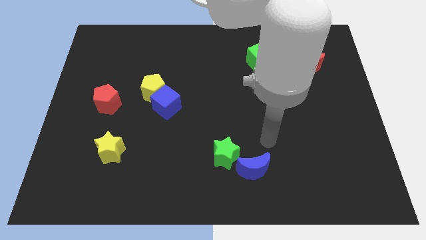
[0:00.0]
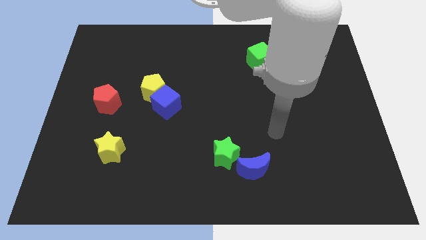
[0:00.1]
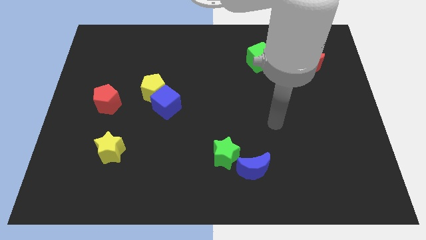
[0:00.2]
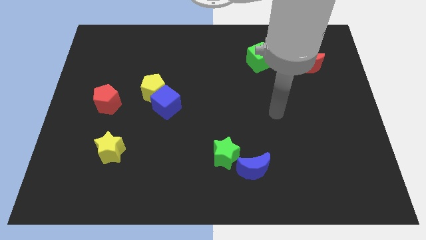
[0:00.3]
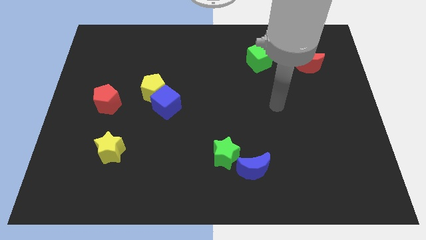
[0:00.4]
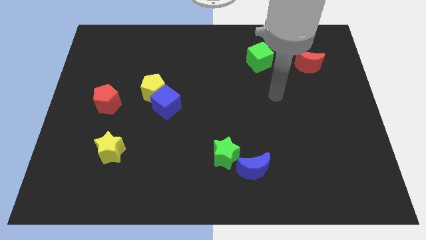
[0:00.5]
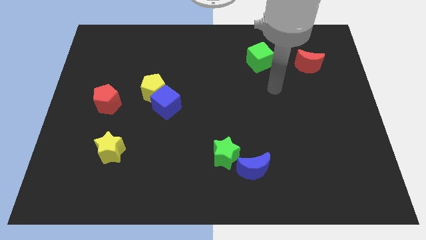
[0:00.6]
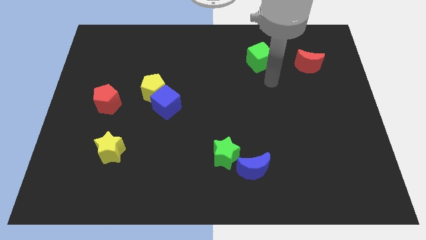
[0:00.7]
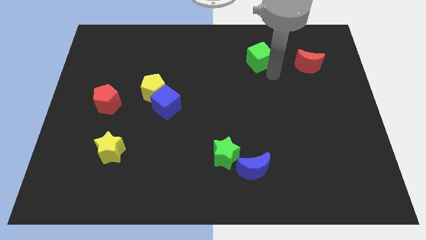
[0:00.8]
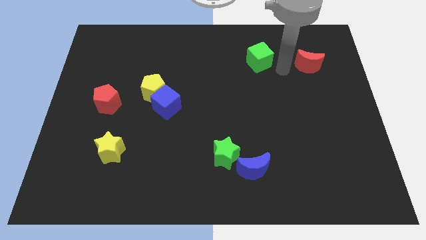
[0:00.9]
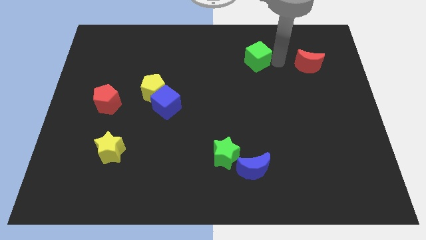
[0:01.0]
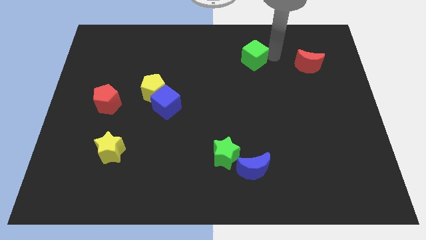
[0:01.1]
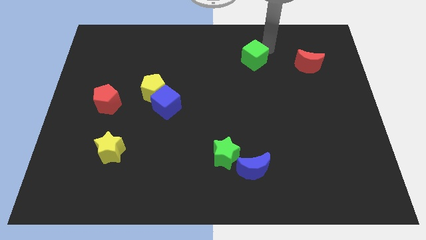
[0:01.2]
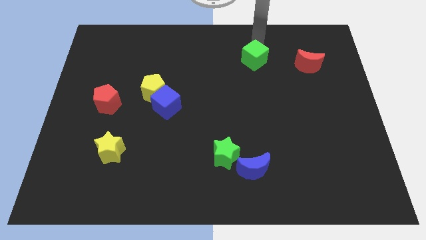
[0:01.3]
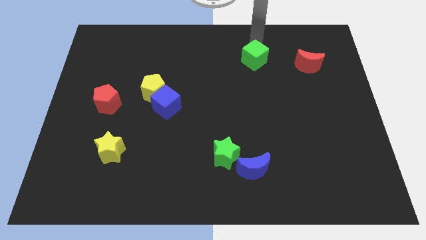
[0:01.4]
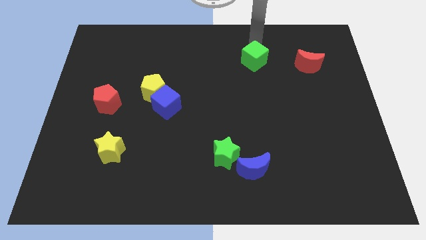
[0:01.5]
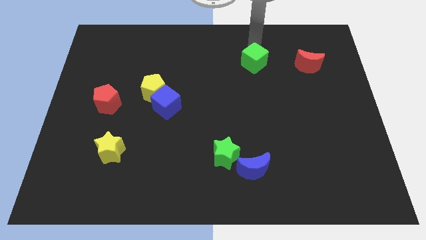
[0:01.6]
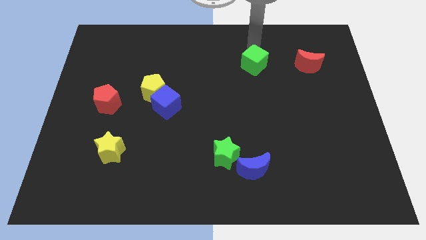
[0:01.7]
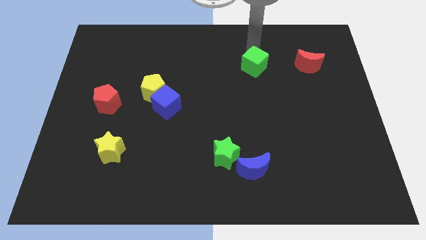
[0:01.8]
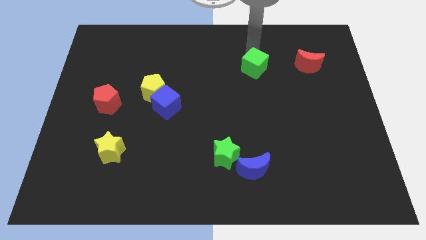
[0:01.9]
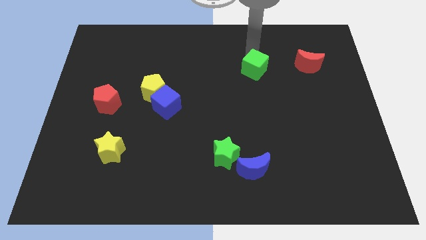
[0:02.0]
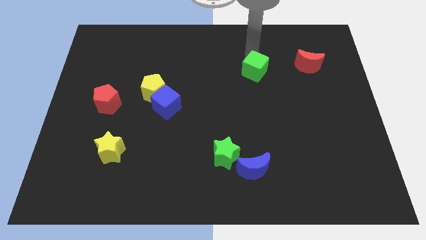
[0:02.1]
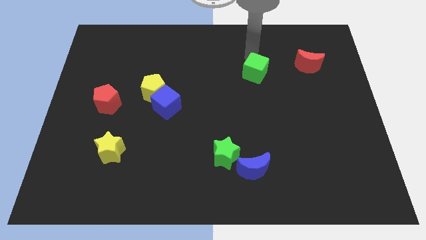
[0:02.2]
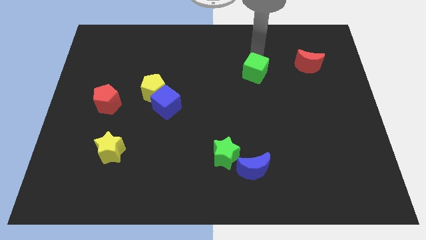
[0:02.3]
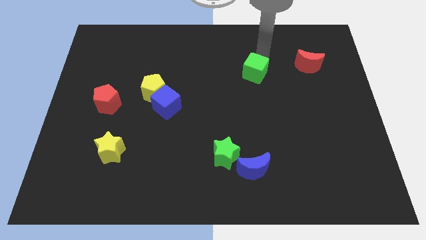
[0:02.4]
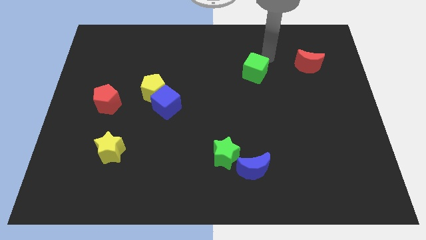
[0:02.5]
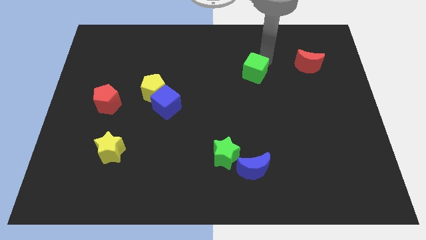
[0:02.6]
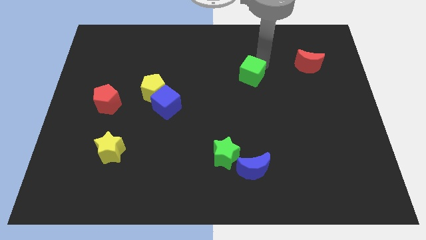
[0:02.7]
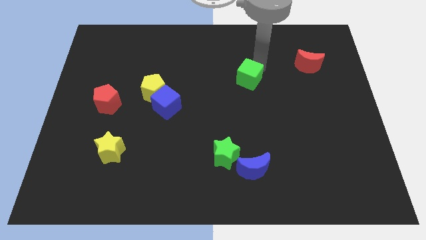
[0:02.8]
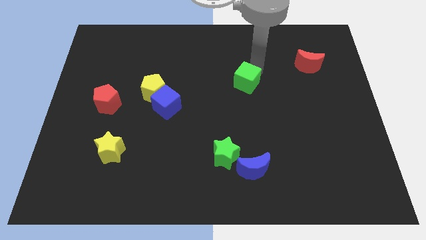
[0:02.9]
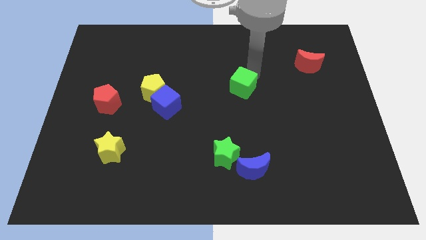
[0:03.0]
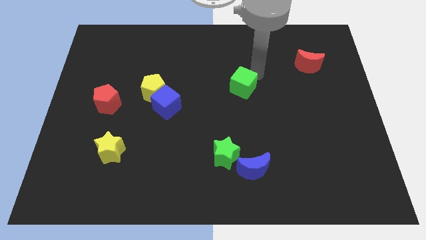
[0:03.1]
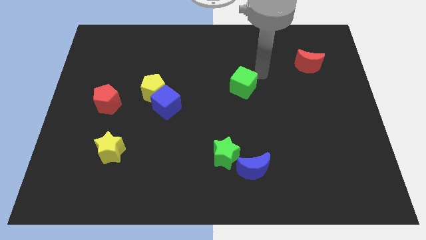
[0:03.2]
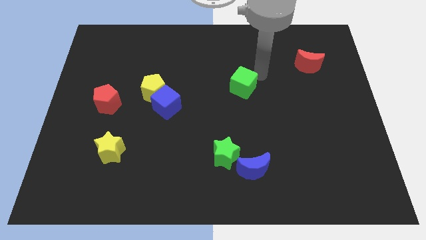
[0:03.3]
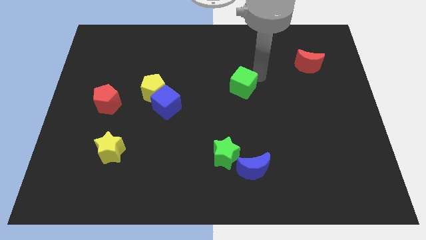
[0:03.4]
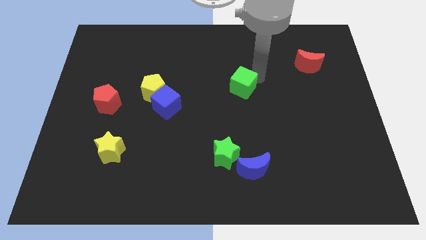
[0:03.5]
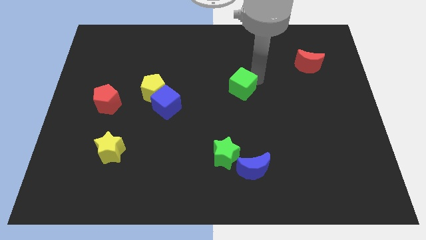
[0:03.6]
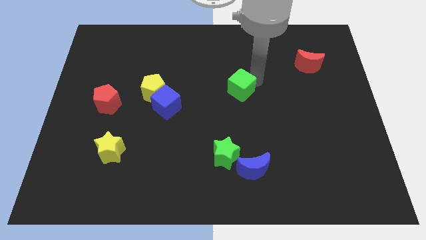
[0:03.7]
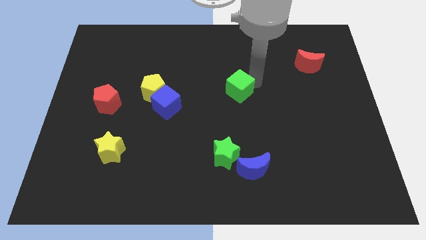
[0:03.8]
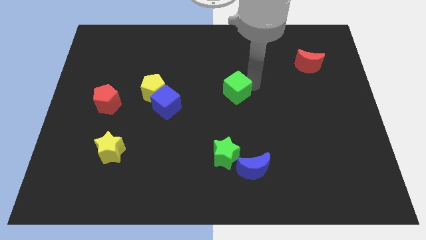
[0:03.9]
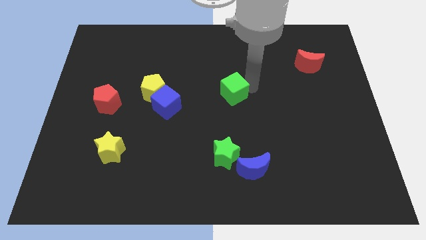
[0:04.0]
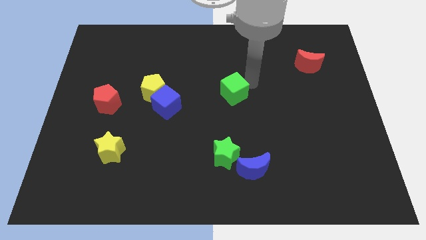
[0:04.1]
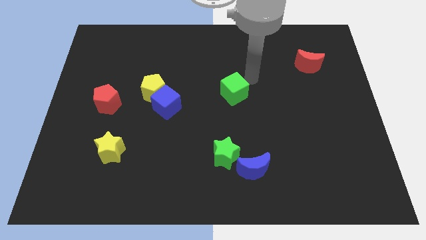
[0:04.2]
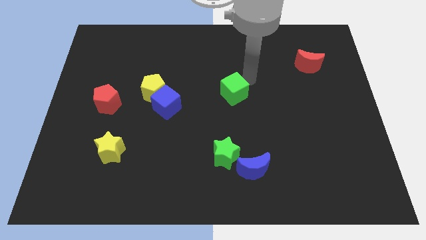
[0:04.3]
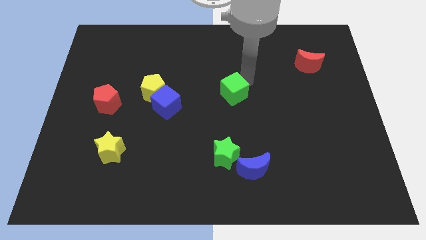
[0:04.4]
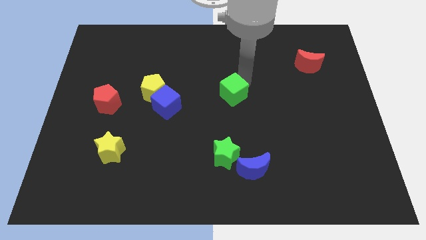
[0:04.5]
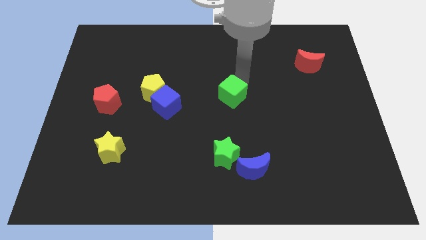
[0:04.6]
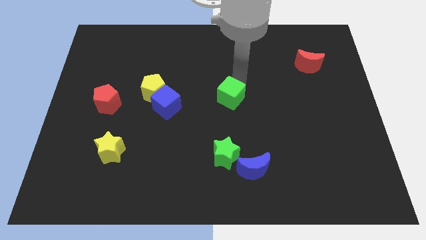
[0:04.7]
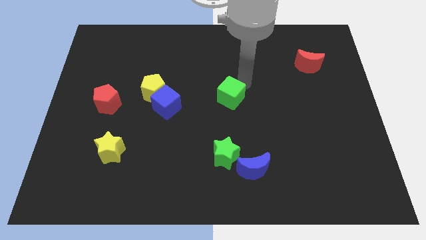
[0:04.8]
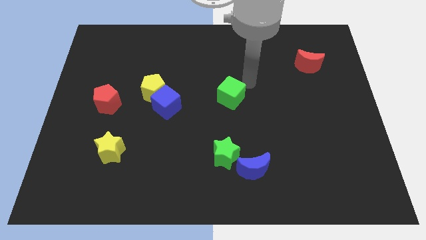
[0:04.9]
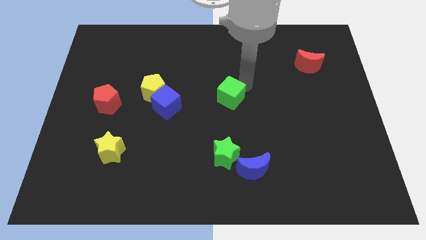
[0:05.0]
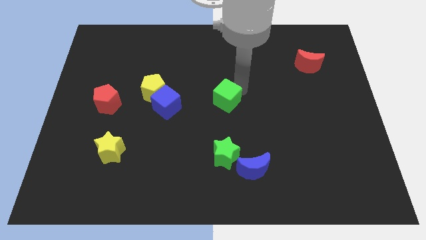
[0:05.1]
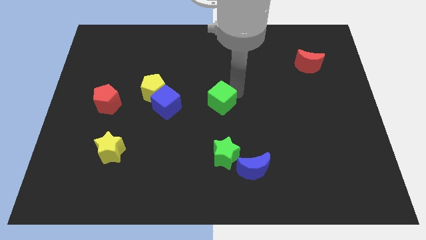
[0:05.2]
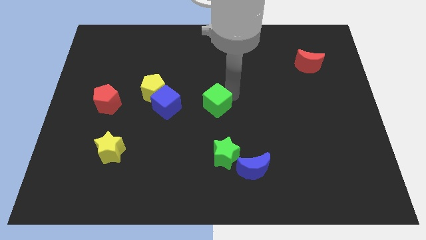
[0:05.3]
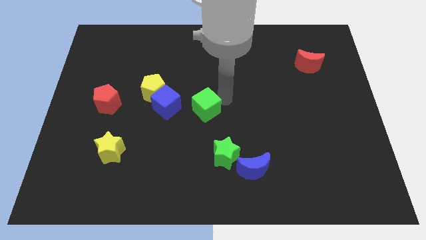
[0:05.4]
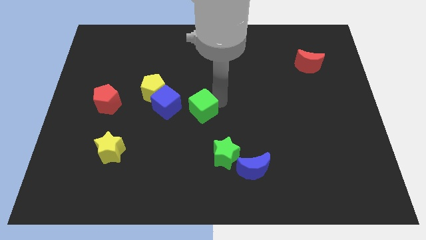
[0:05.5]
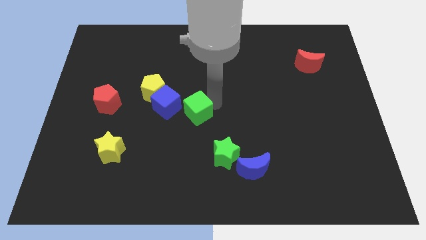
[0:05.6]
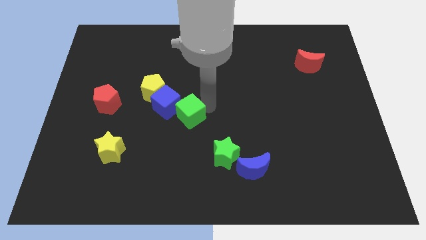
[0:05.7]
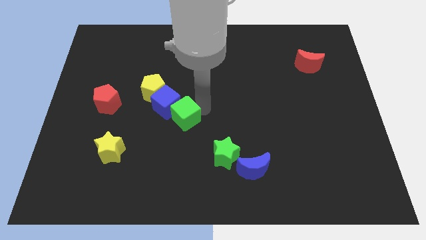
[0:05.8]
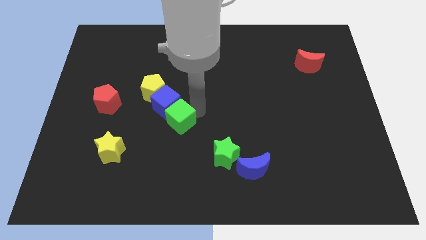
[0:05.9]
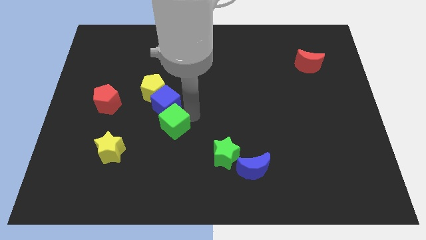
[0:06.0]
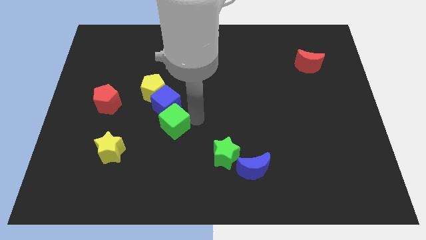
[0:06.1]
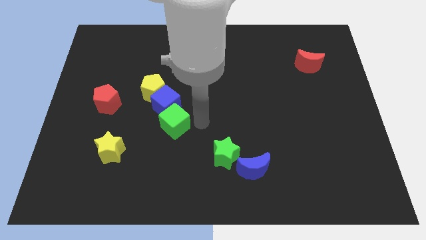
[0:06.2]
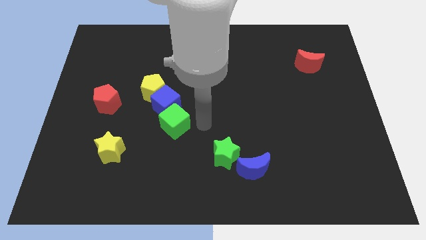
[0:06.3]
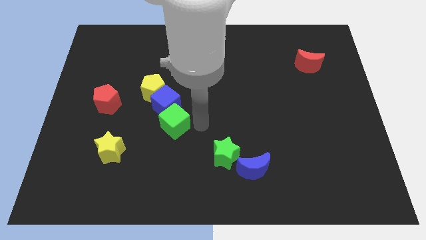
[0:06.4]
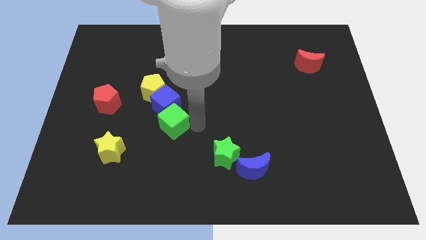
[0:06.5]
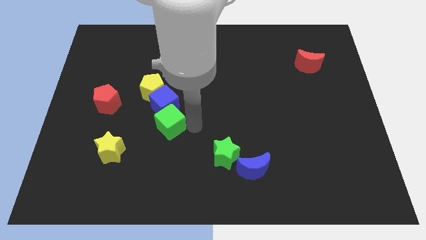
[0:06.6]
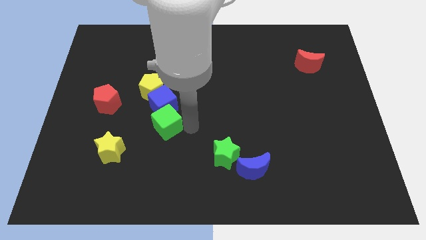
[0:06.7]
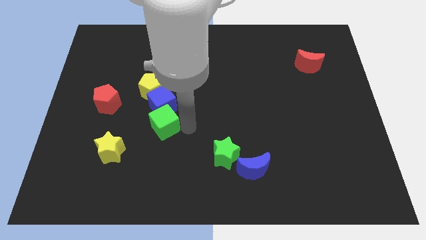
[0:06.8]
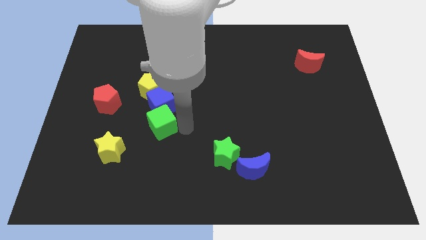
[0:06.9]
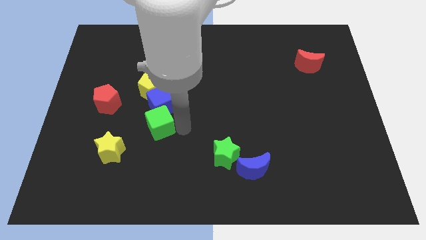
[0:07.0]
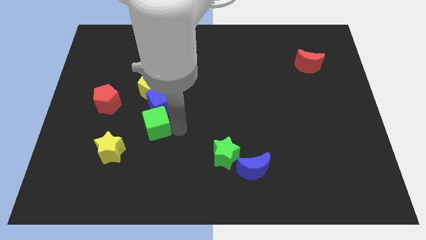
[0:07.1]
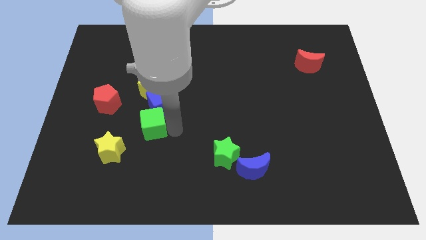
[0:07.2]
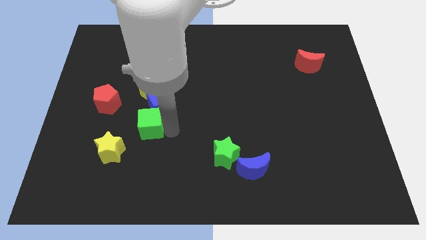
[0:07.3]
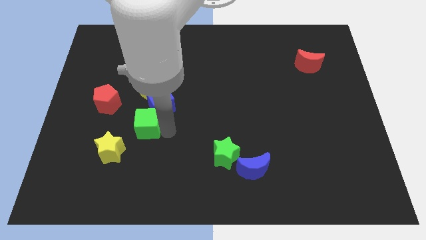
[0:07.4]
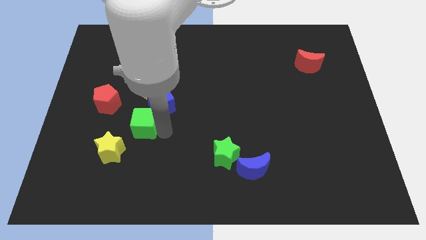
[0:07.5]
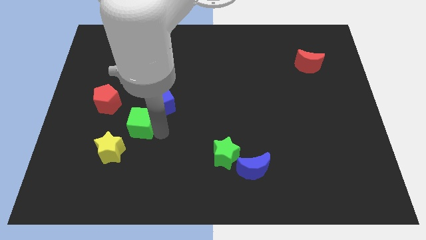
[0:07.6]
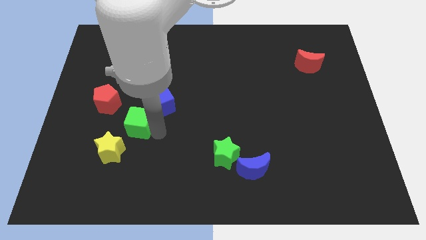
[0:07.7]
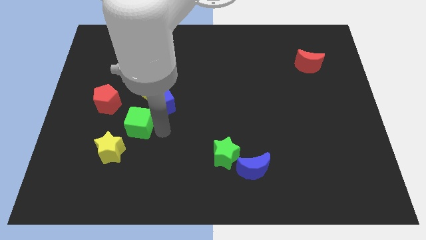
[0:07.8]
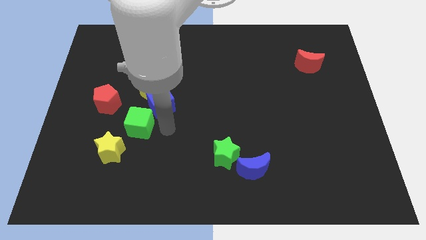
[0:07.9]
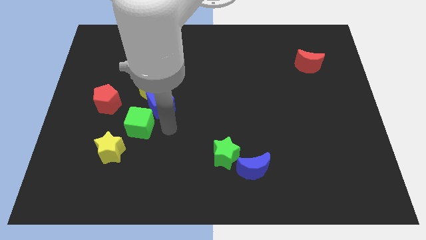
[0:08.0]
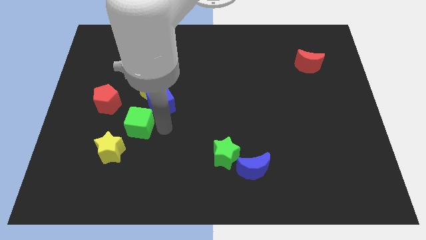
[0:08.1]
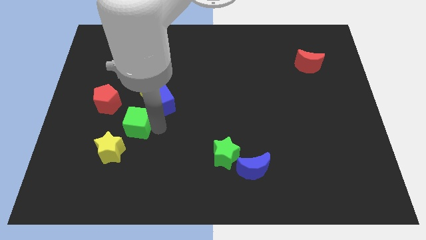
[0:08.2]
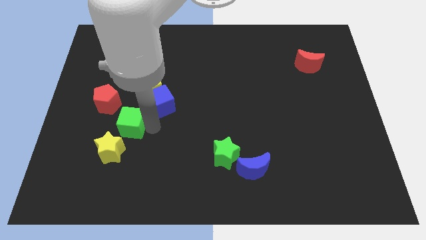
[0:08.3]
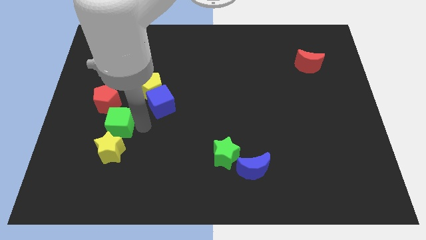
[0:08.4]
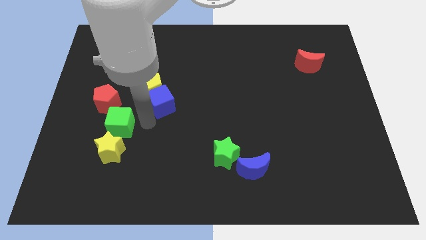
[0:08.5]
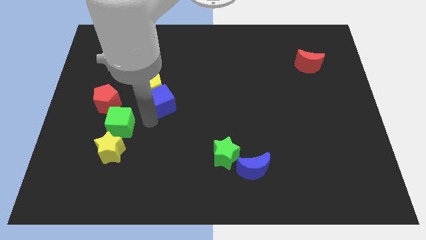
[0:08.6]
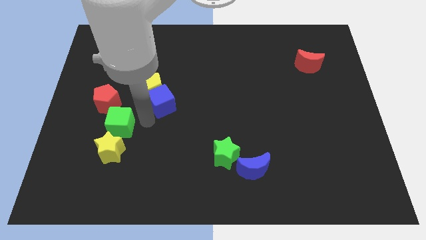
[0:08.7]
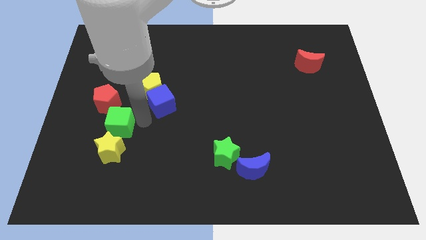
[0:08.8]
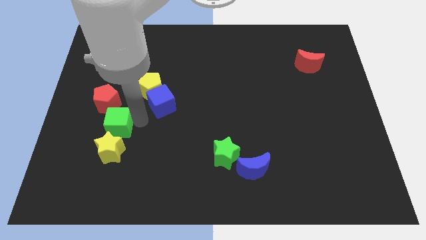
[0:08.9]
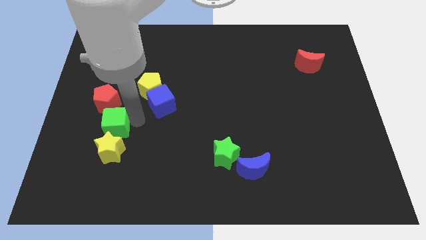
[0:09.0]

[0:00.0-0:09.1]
put the green cube to the top left side of the yellow star
